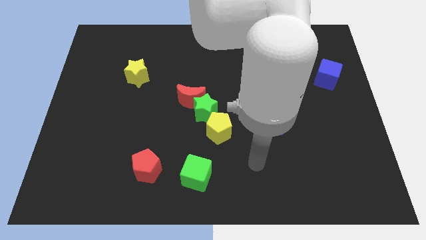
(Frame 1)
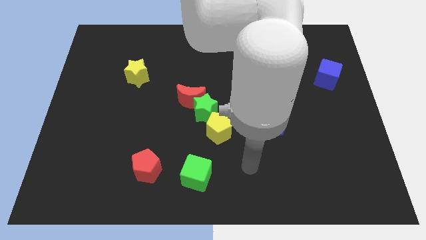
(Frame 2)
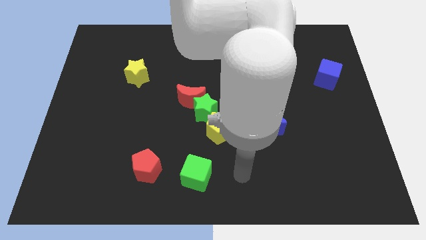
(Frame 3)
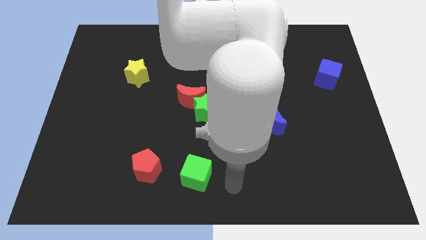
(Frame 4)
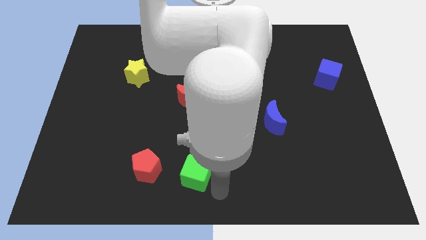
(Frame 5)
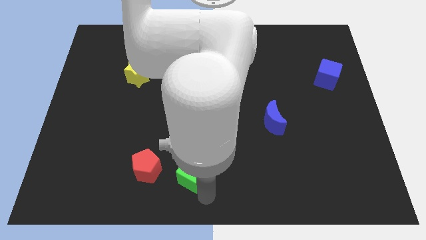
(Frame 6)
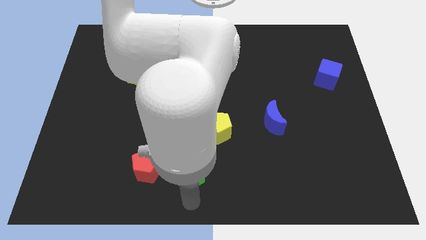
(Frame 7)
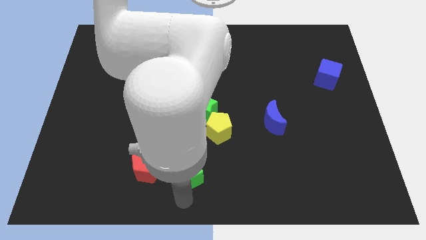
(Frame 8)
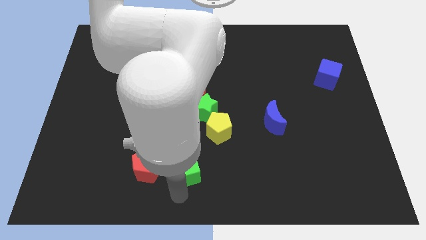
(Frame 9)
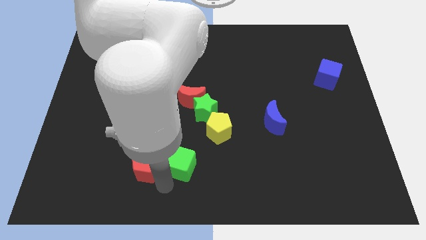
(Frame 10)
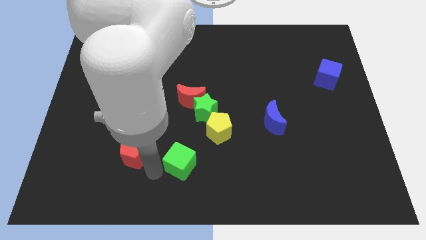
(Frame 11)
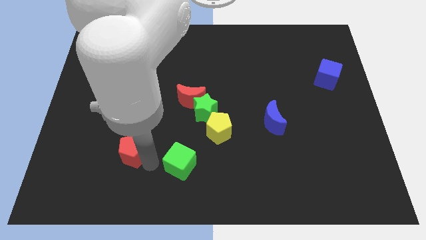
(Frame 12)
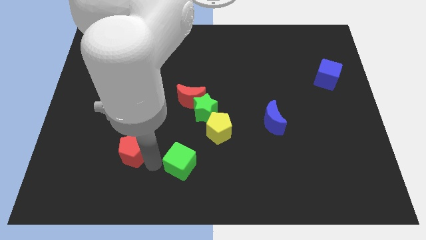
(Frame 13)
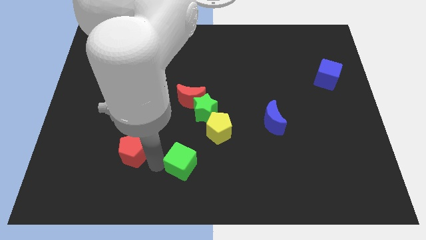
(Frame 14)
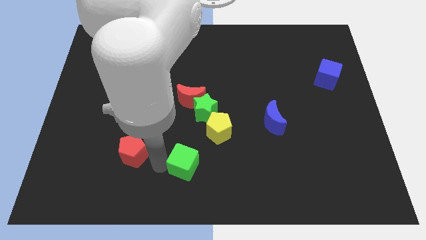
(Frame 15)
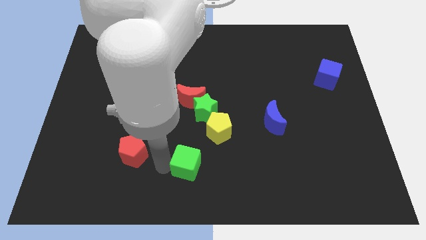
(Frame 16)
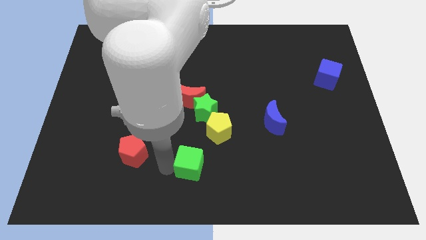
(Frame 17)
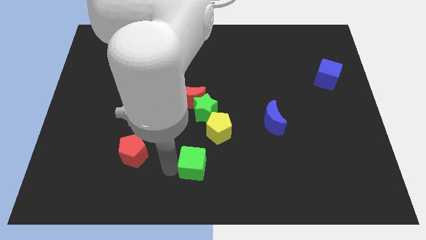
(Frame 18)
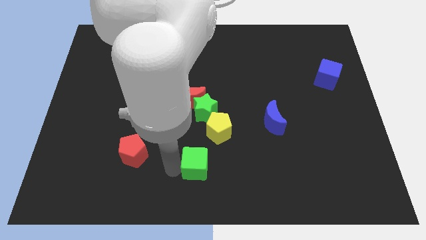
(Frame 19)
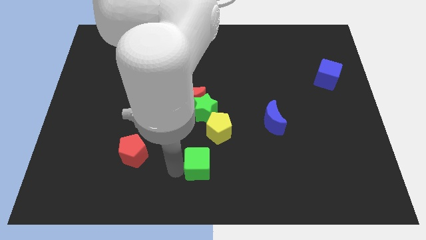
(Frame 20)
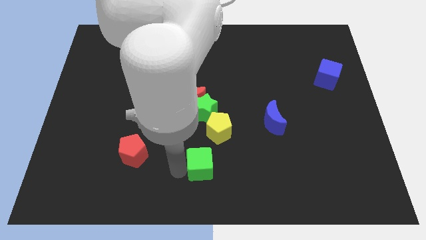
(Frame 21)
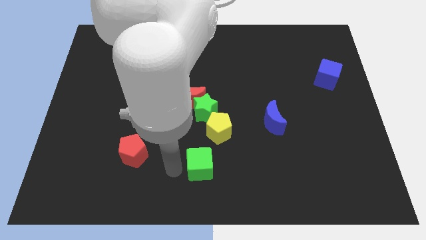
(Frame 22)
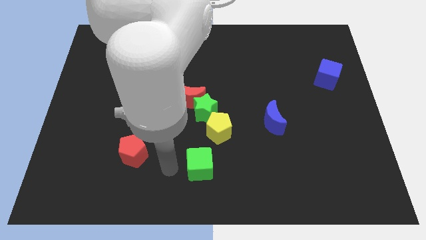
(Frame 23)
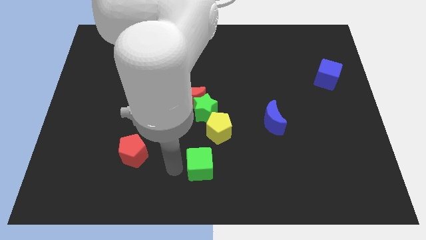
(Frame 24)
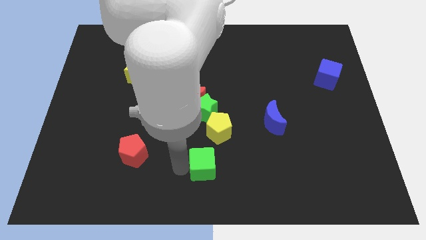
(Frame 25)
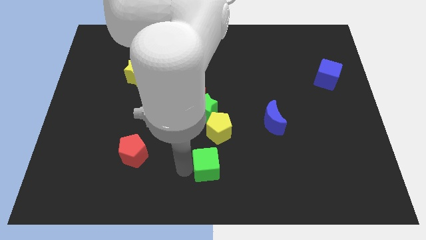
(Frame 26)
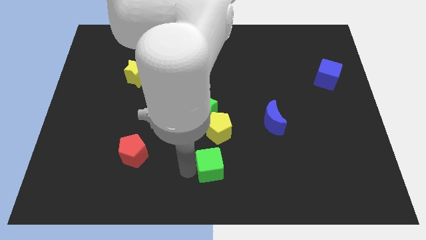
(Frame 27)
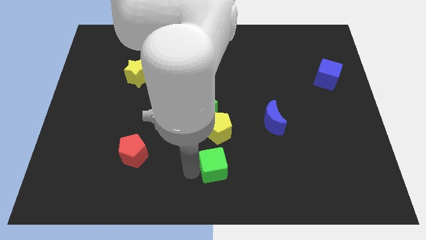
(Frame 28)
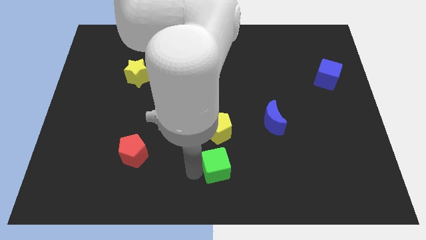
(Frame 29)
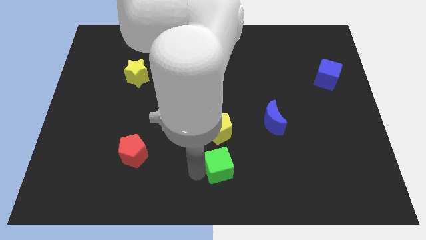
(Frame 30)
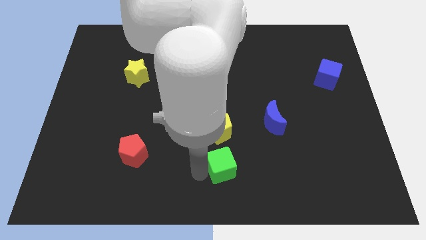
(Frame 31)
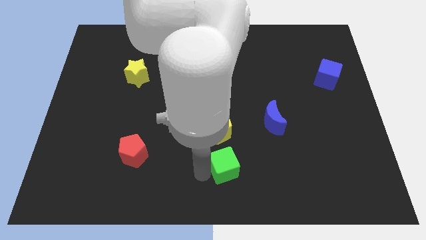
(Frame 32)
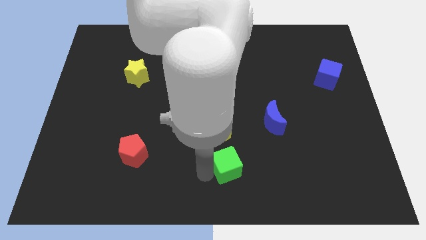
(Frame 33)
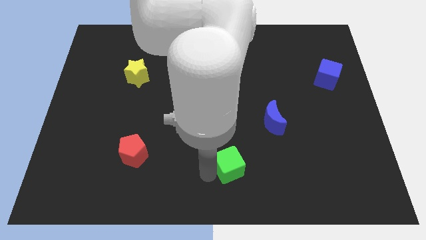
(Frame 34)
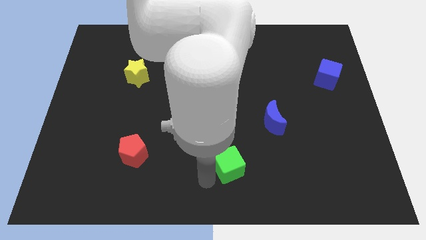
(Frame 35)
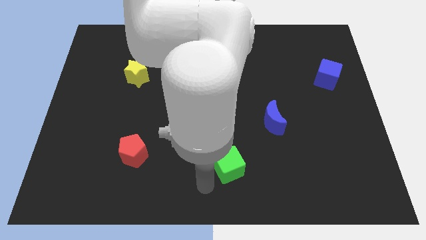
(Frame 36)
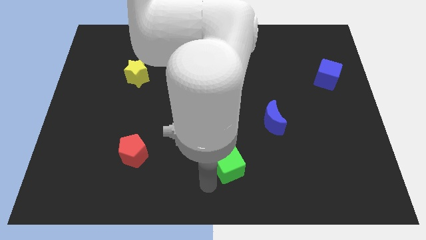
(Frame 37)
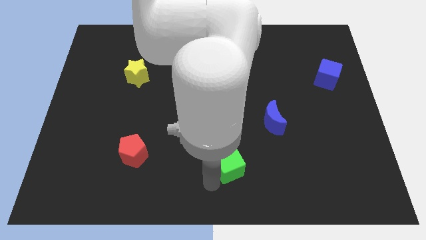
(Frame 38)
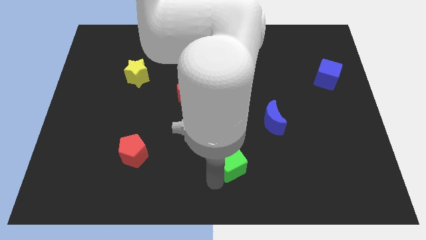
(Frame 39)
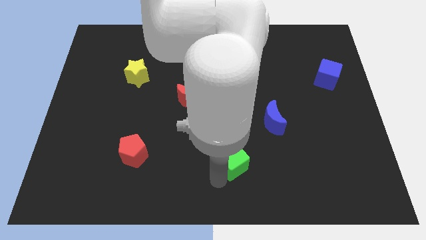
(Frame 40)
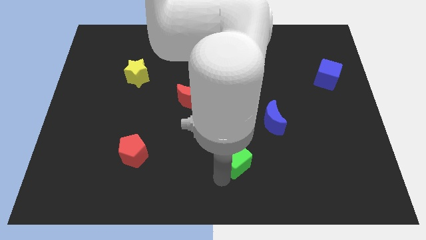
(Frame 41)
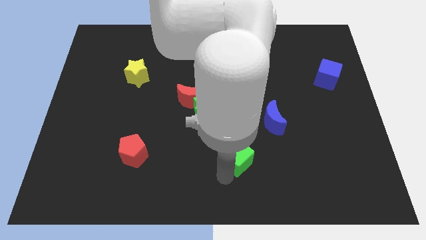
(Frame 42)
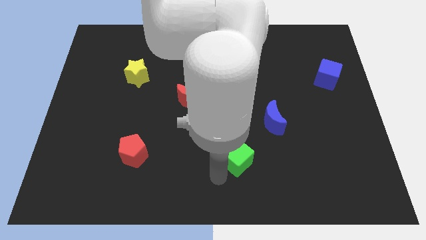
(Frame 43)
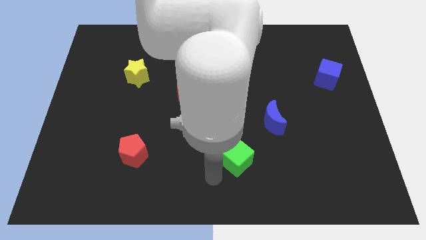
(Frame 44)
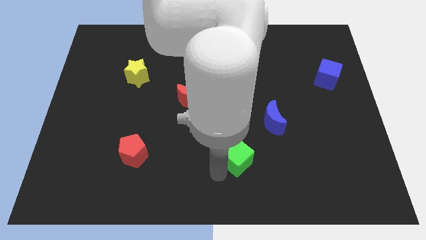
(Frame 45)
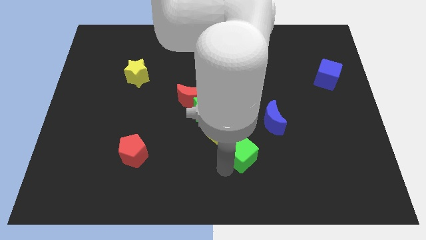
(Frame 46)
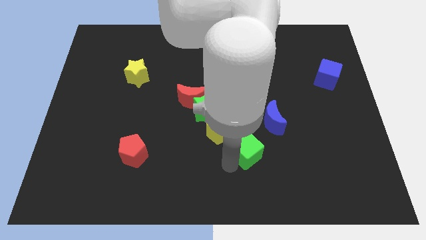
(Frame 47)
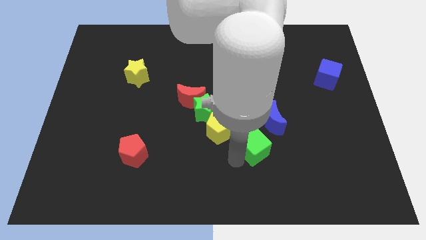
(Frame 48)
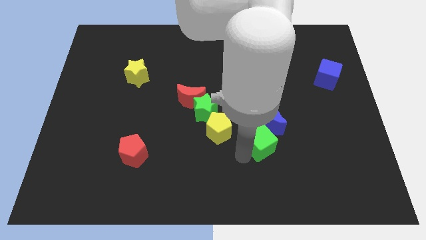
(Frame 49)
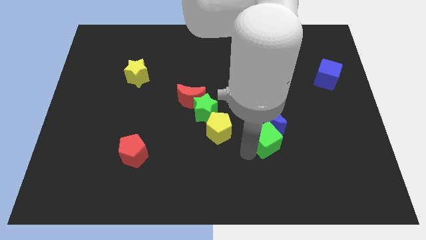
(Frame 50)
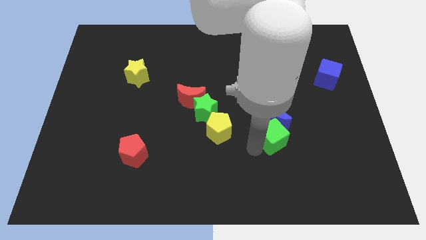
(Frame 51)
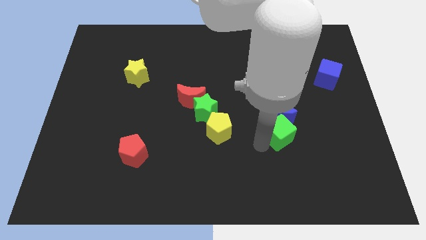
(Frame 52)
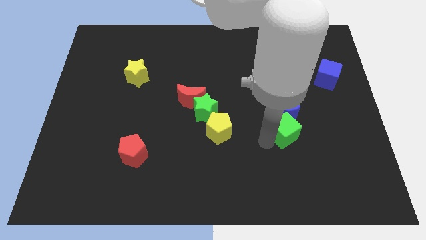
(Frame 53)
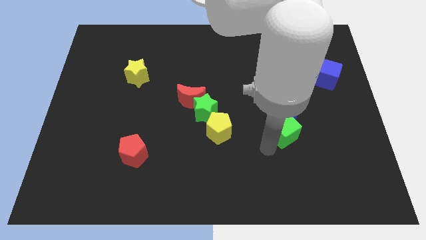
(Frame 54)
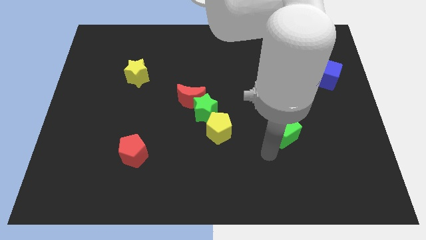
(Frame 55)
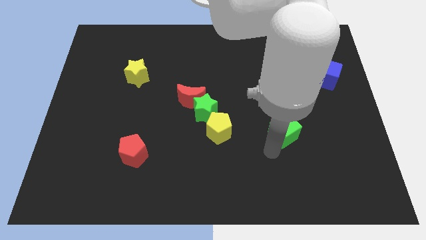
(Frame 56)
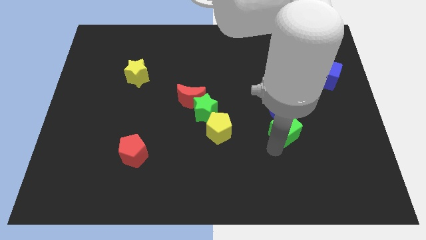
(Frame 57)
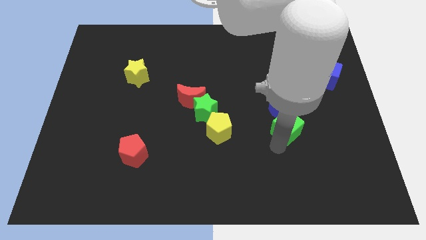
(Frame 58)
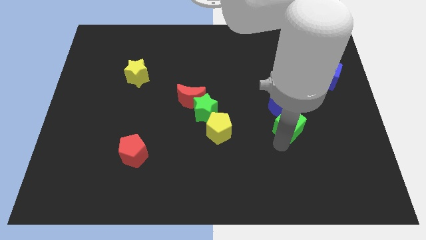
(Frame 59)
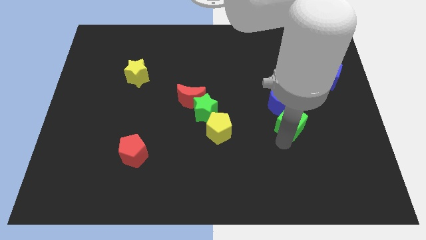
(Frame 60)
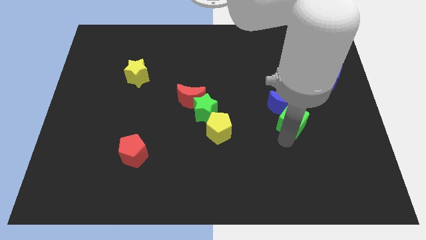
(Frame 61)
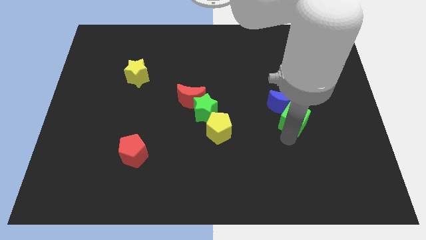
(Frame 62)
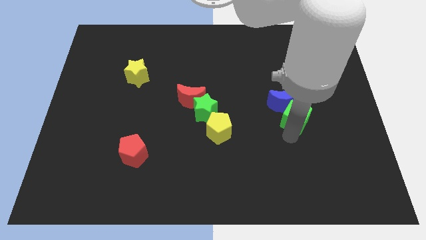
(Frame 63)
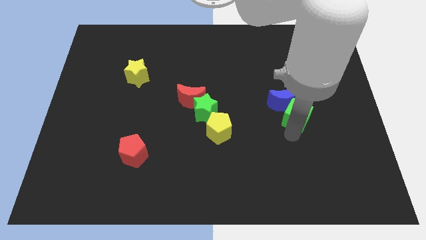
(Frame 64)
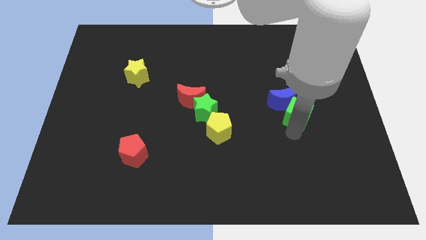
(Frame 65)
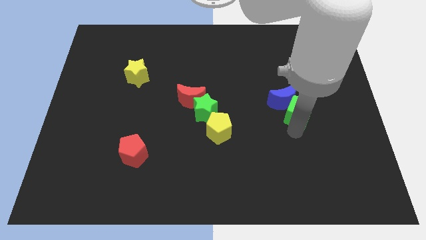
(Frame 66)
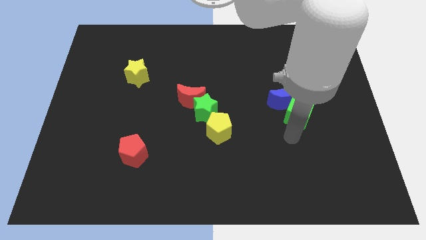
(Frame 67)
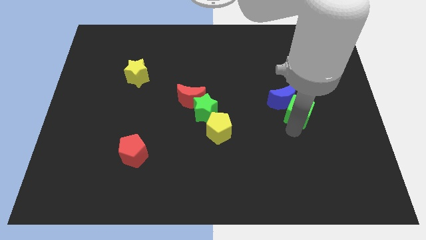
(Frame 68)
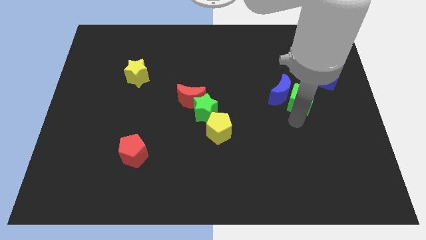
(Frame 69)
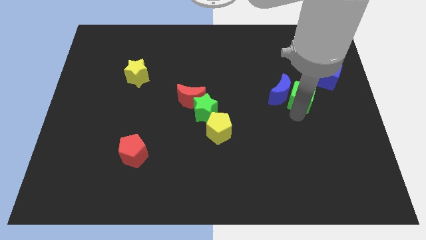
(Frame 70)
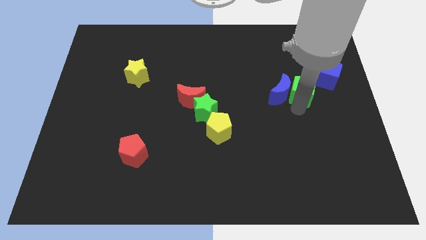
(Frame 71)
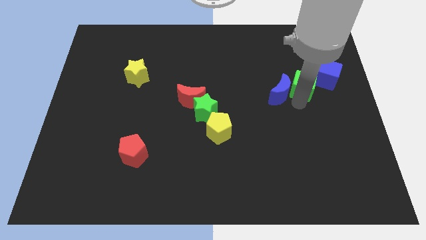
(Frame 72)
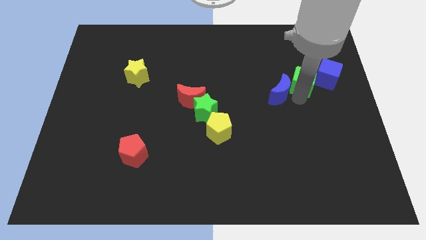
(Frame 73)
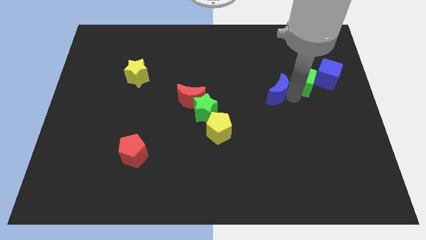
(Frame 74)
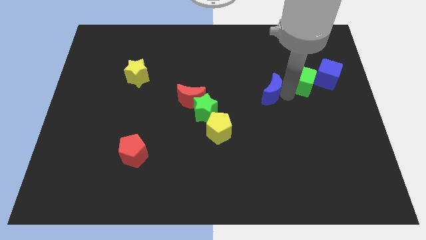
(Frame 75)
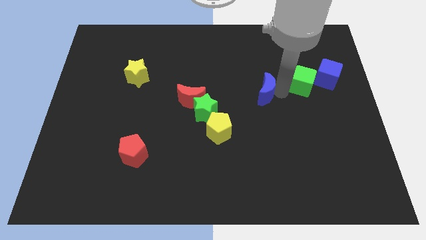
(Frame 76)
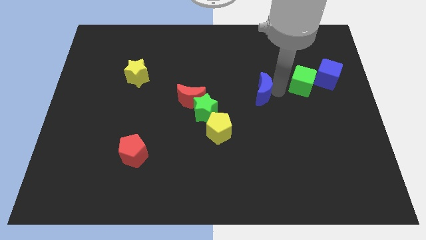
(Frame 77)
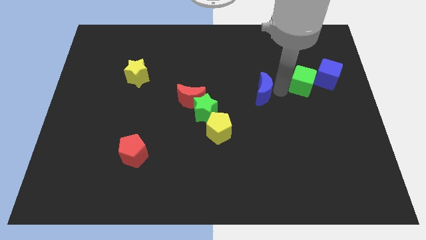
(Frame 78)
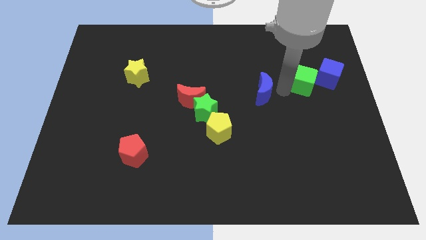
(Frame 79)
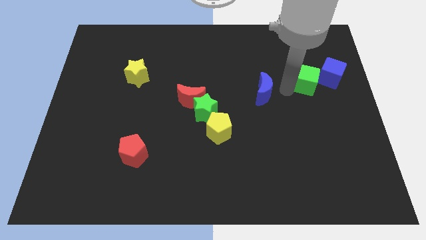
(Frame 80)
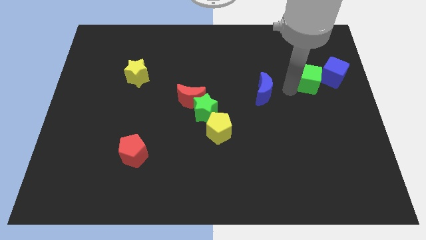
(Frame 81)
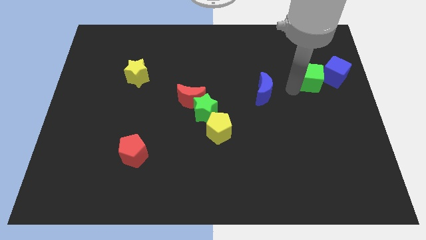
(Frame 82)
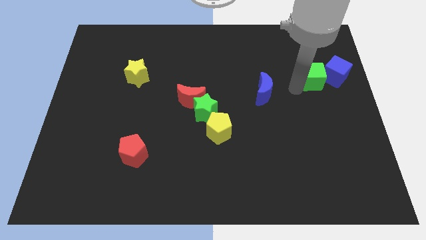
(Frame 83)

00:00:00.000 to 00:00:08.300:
move the green cube next to the blue cube
